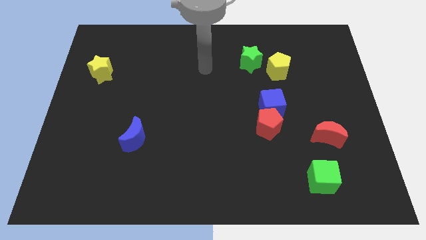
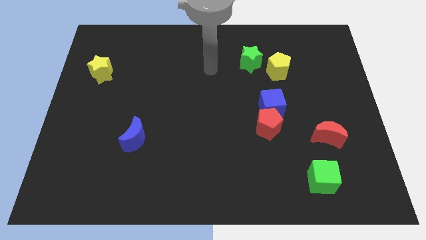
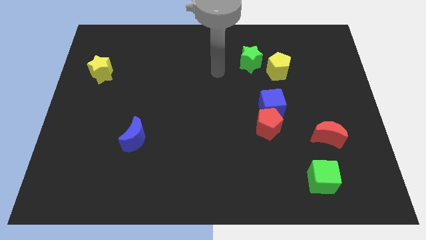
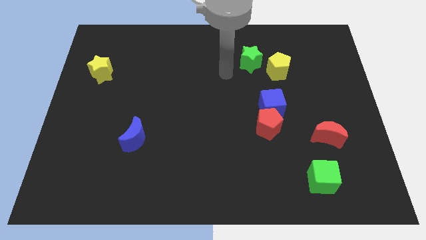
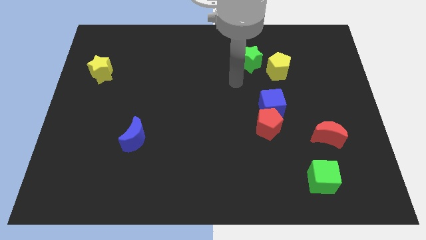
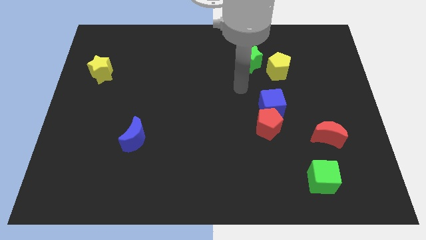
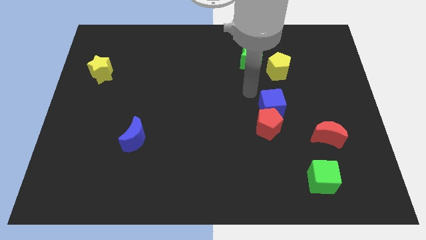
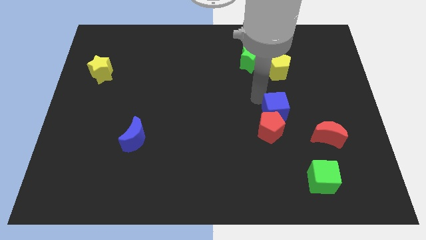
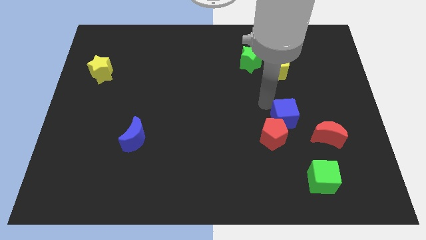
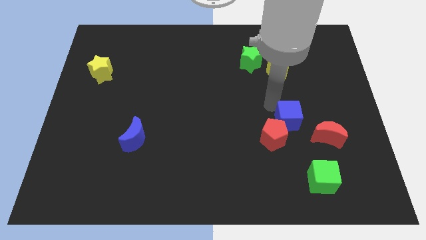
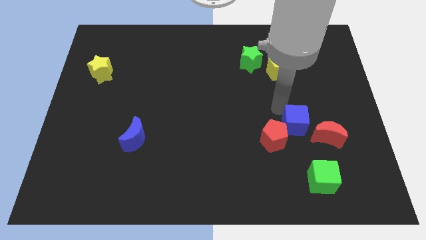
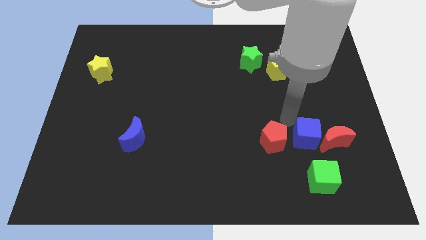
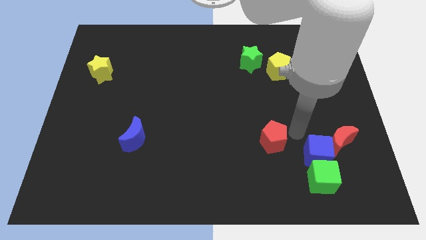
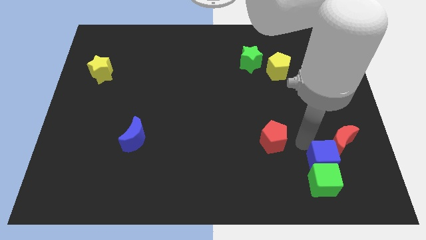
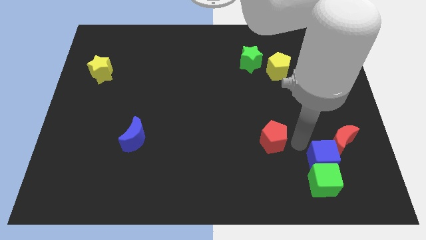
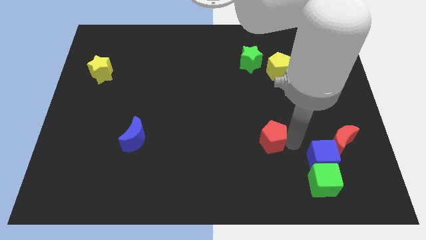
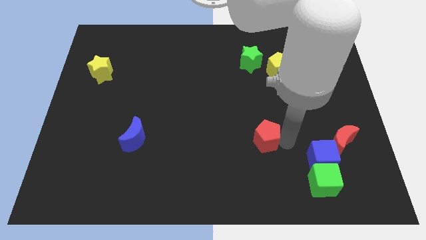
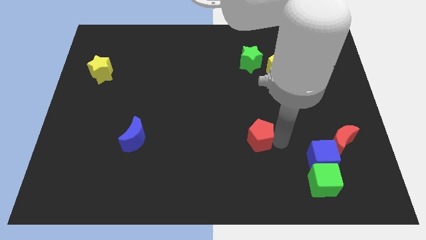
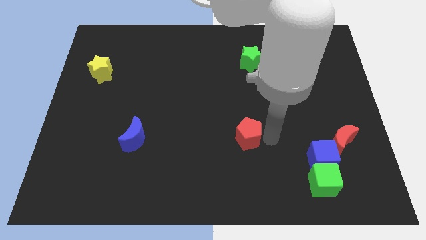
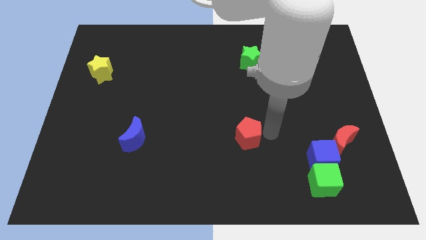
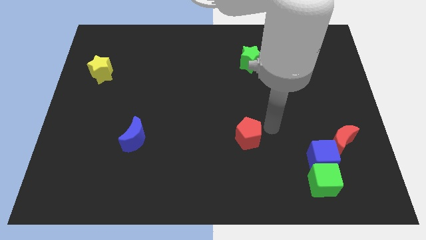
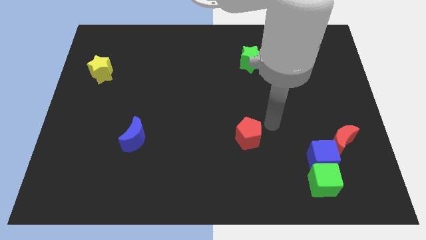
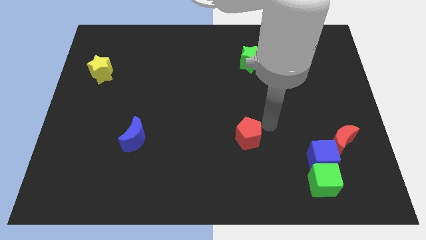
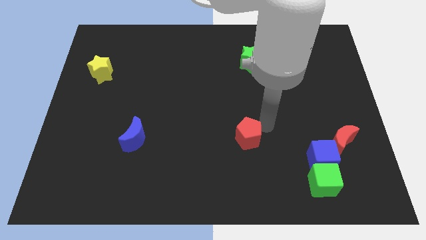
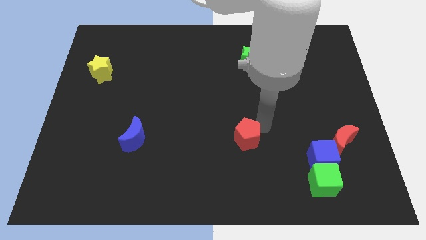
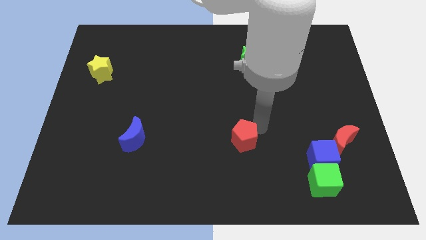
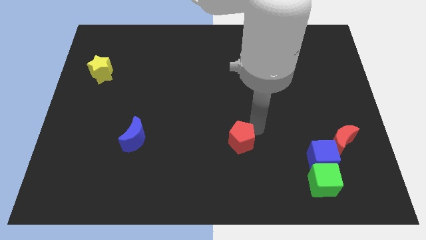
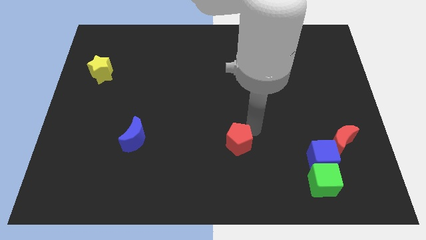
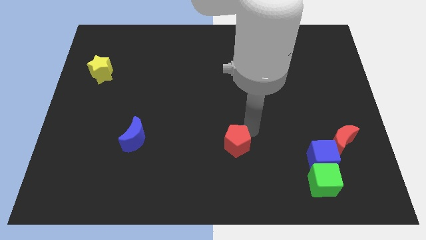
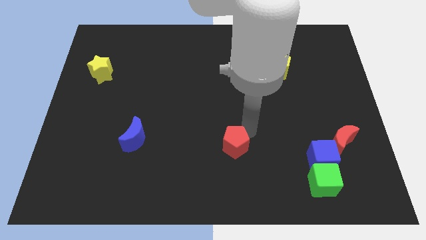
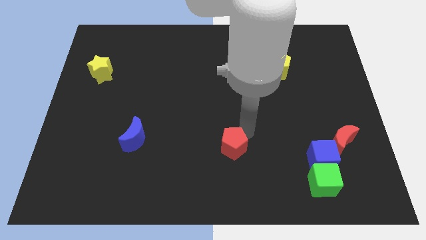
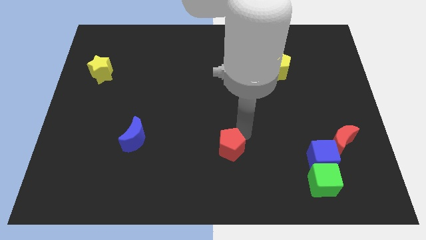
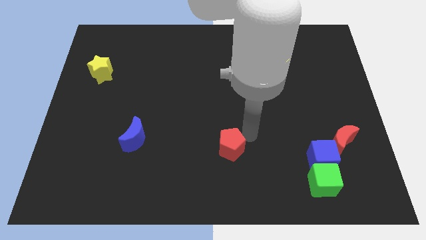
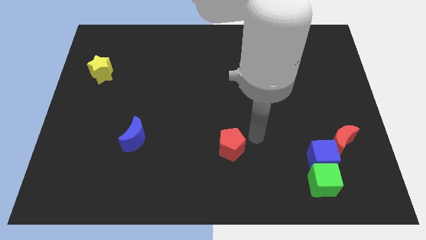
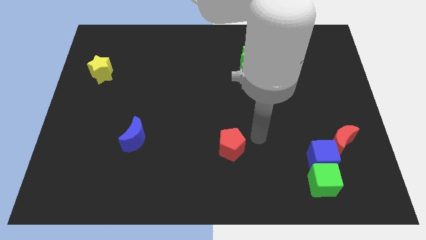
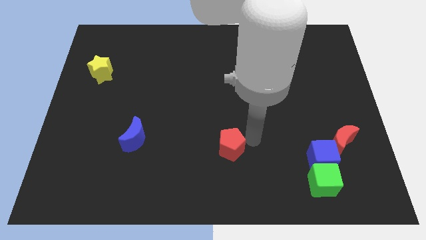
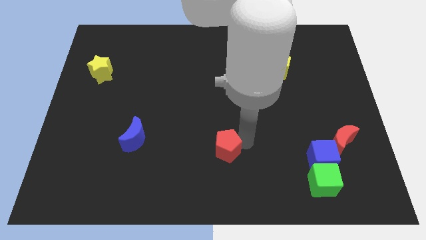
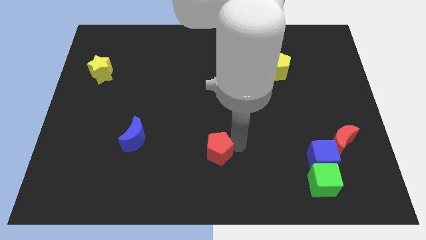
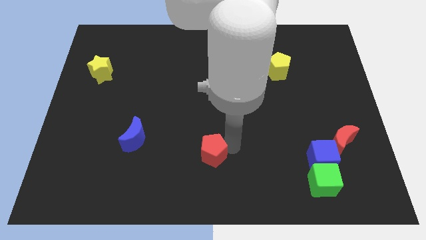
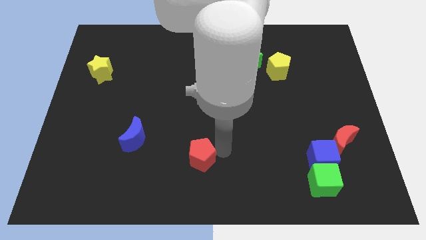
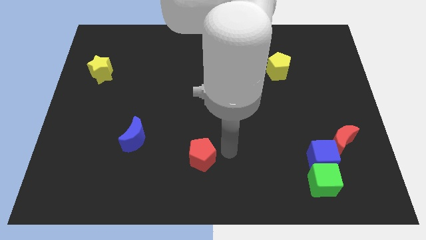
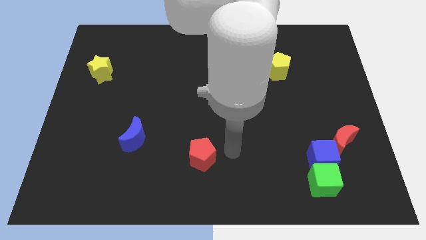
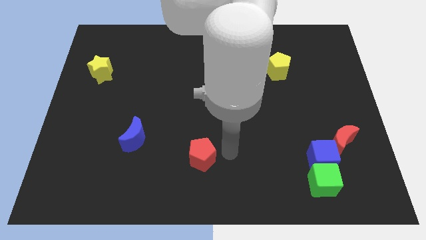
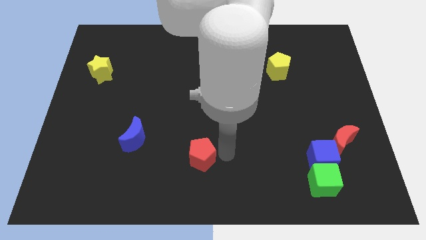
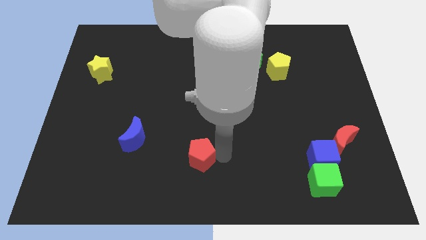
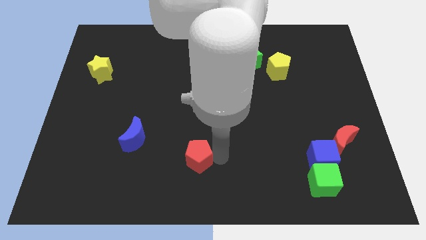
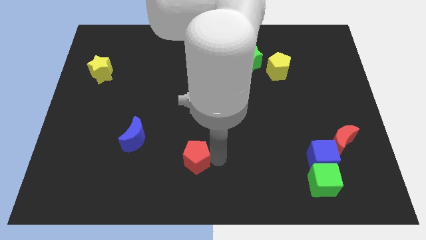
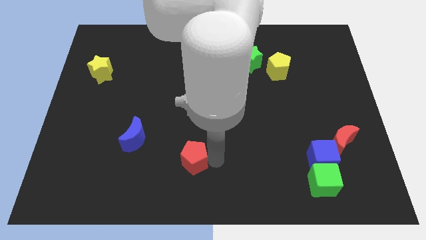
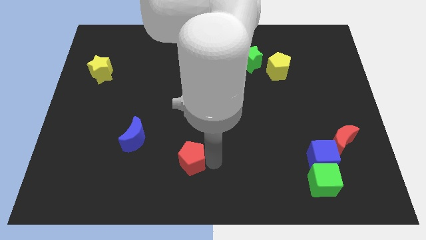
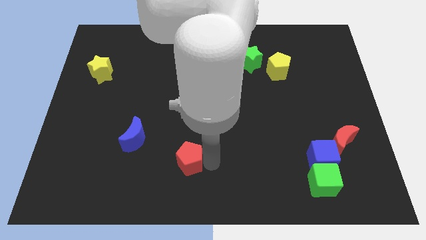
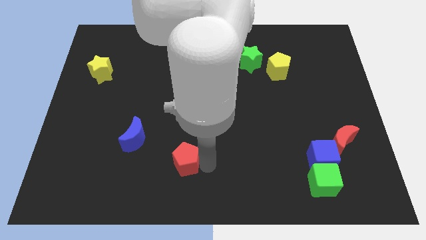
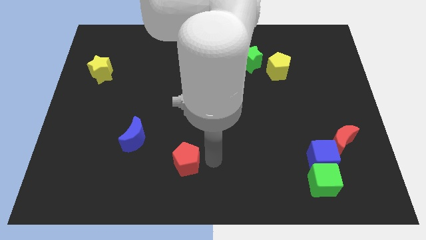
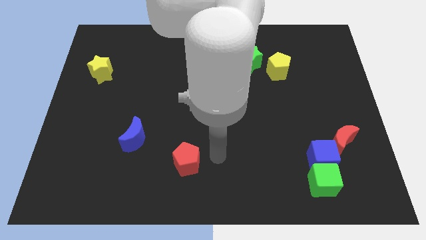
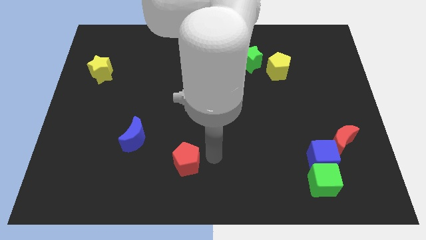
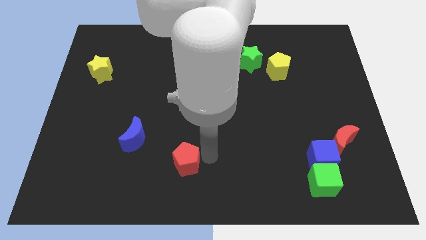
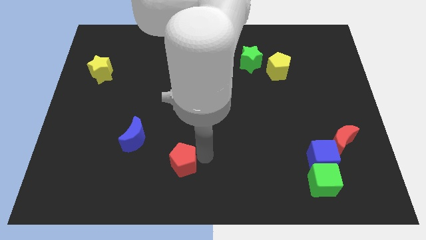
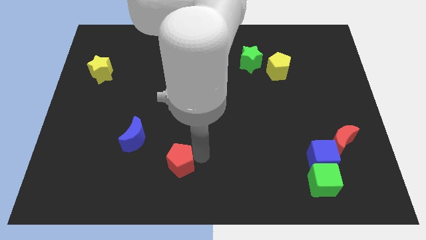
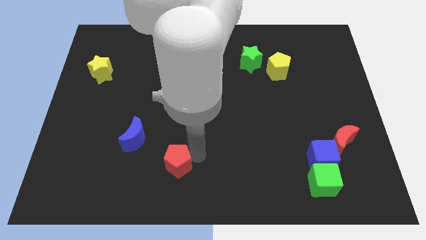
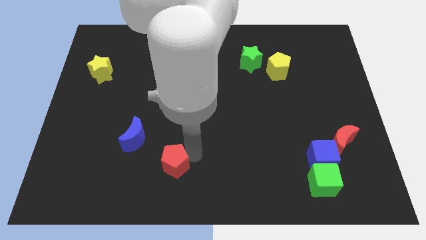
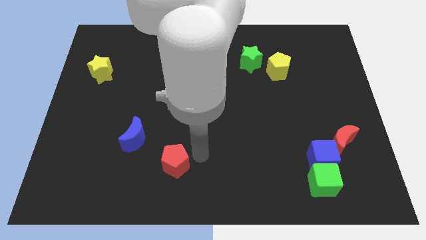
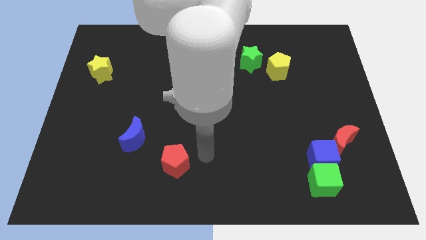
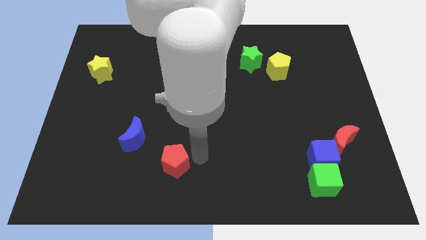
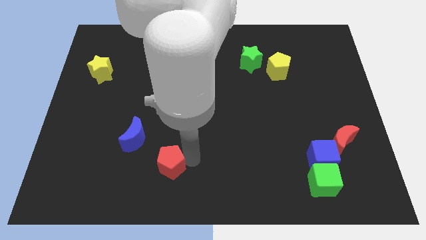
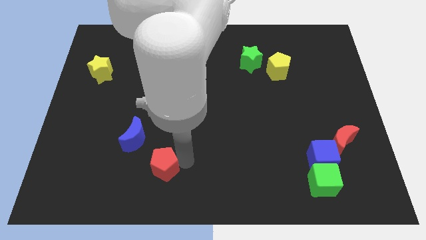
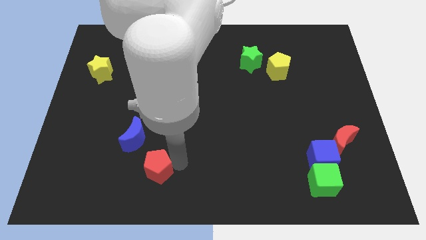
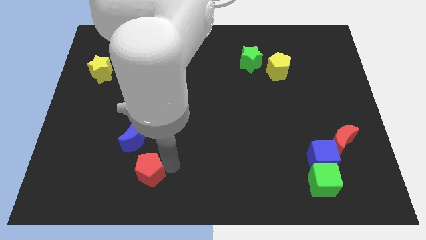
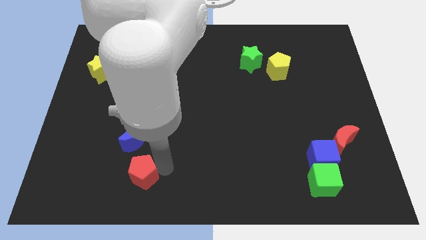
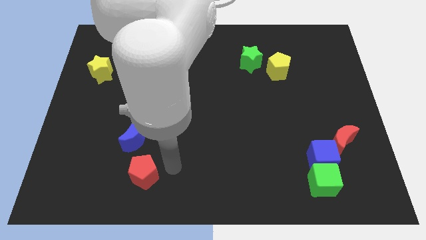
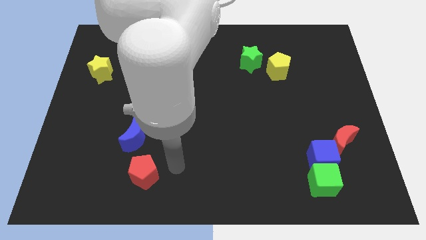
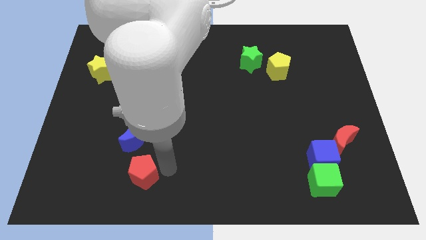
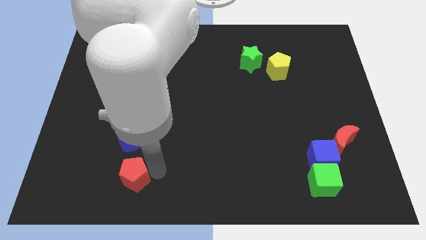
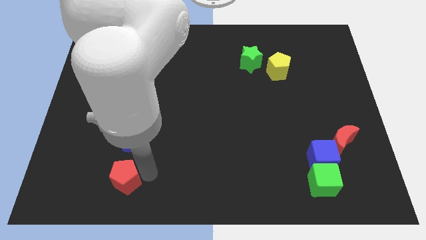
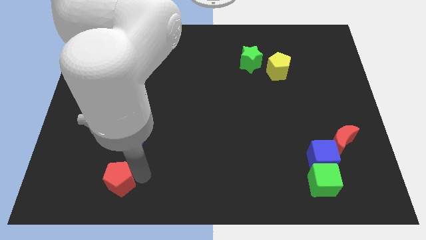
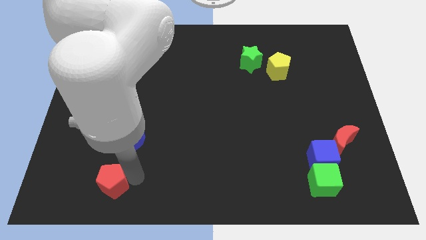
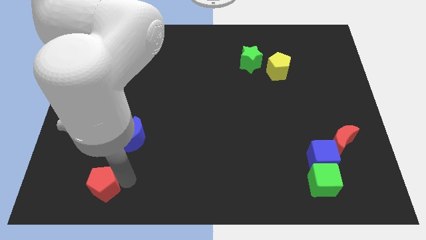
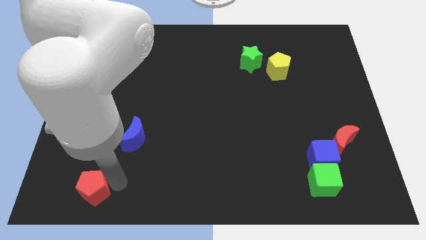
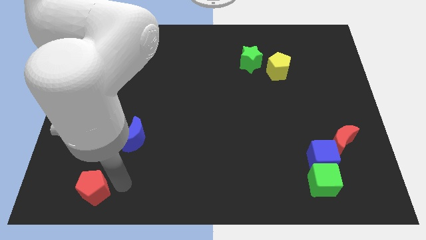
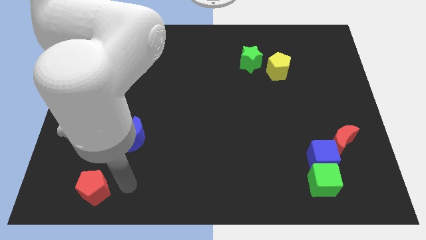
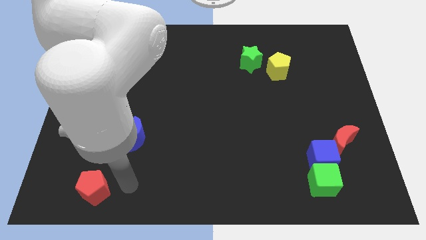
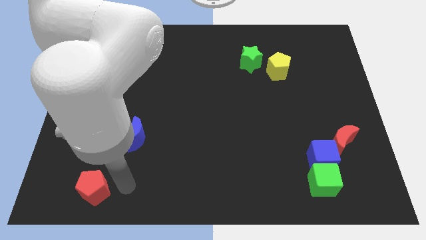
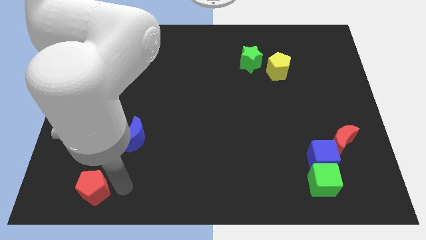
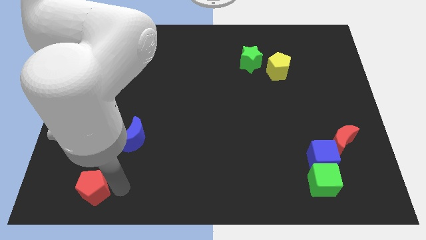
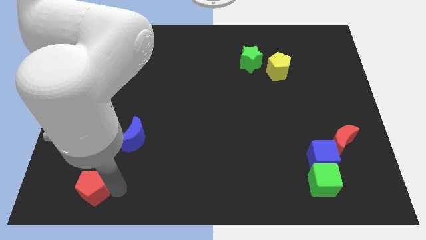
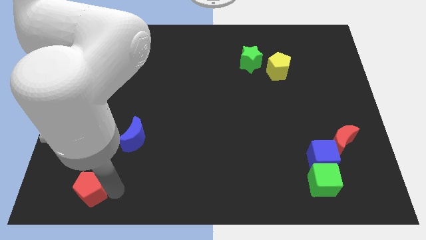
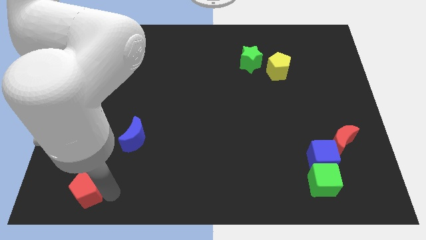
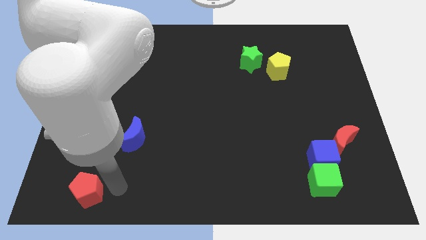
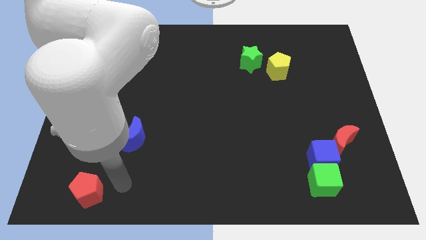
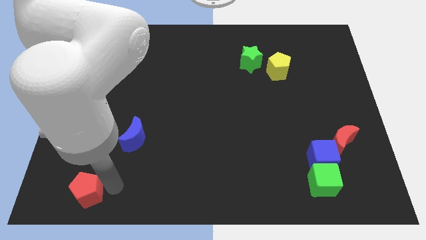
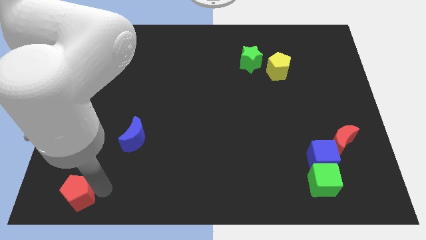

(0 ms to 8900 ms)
put the red pentagon to the bottom left corner
